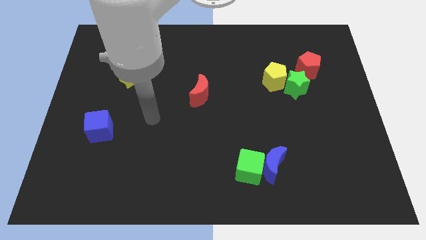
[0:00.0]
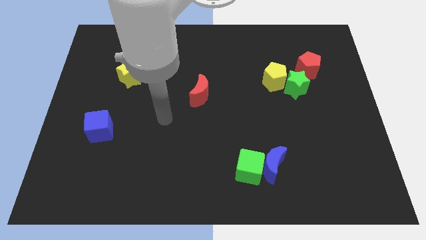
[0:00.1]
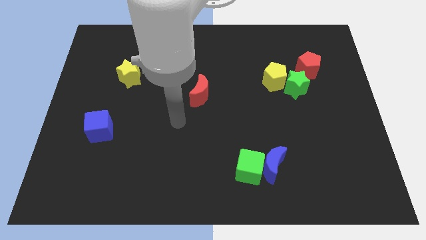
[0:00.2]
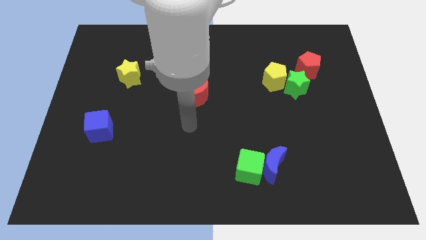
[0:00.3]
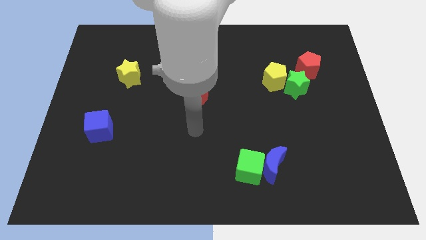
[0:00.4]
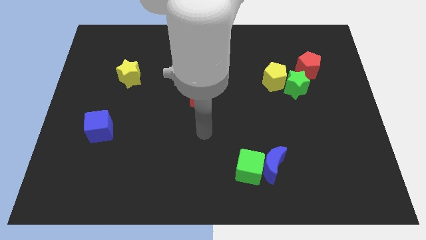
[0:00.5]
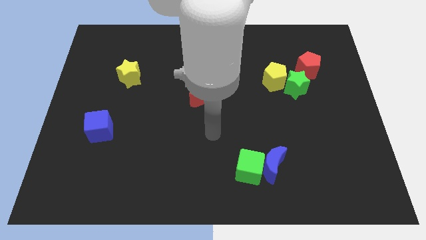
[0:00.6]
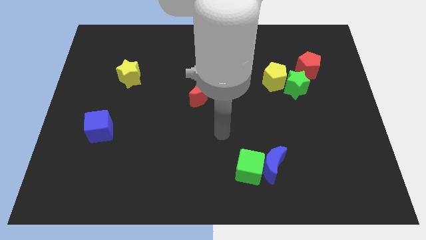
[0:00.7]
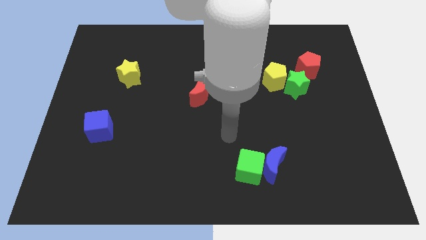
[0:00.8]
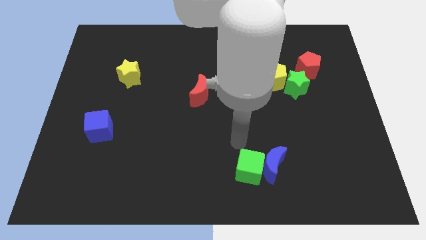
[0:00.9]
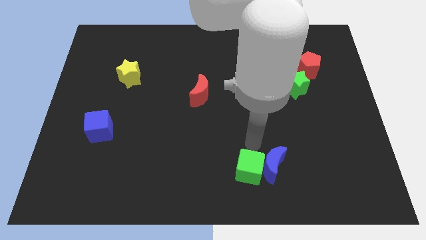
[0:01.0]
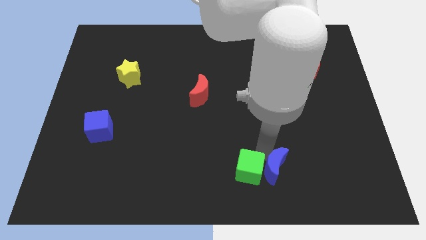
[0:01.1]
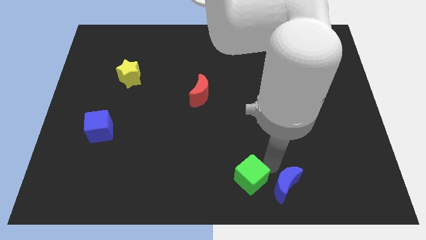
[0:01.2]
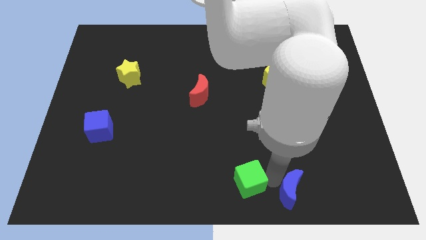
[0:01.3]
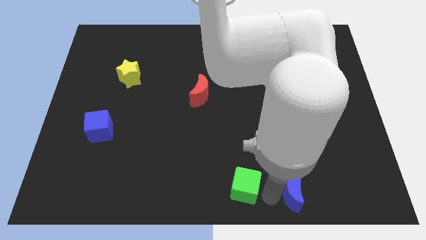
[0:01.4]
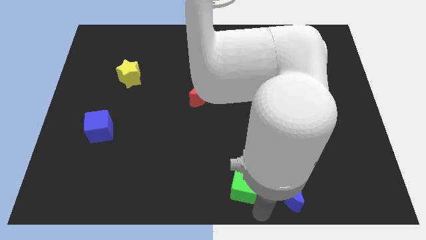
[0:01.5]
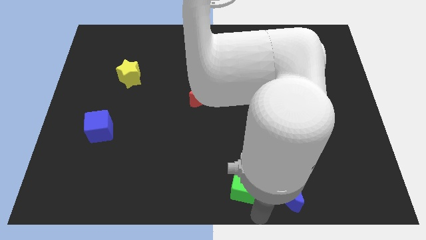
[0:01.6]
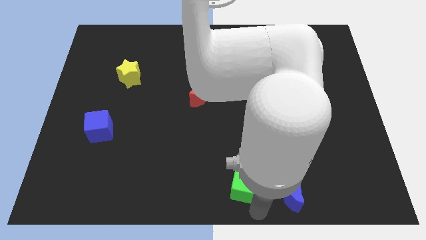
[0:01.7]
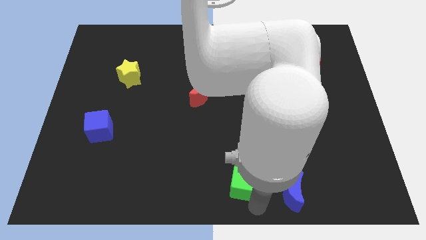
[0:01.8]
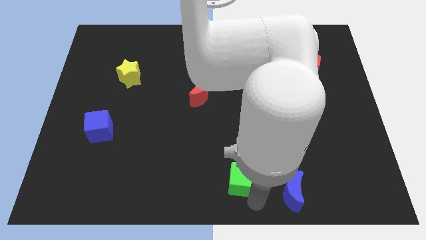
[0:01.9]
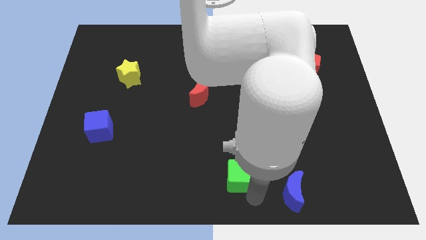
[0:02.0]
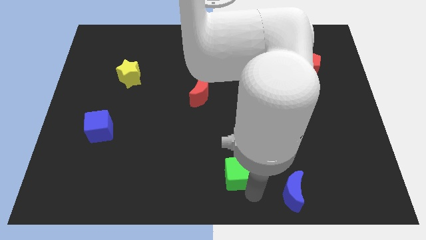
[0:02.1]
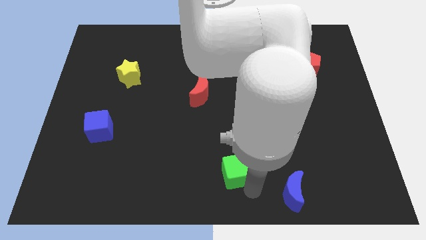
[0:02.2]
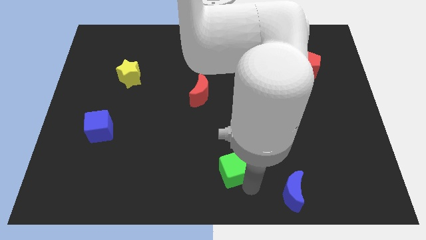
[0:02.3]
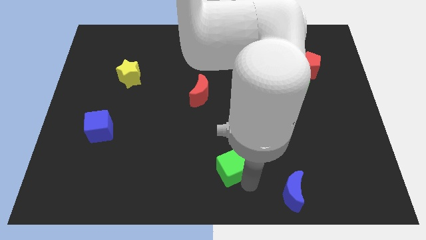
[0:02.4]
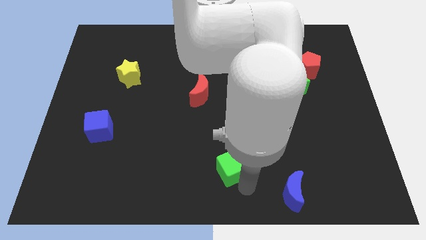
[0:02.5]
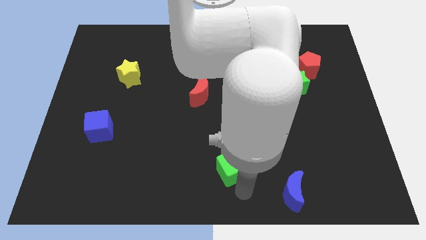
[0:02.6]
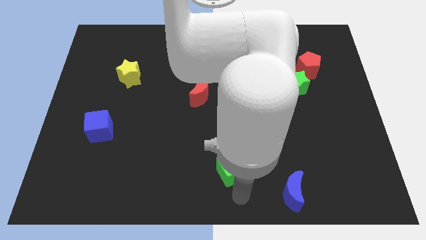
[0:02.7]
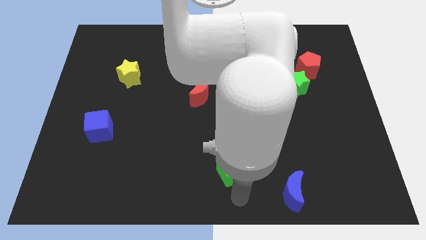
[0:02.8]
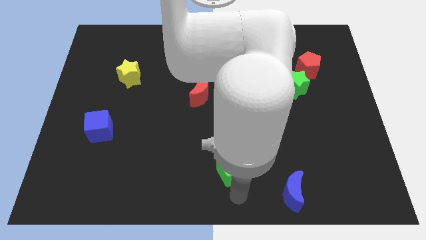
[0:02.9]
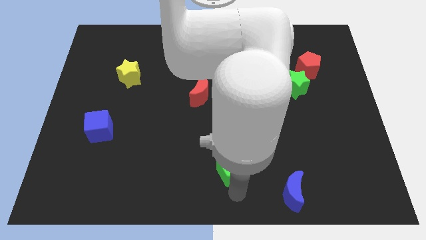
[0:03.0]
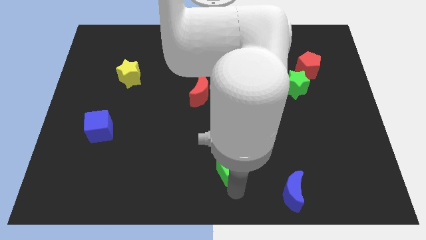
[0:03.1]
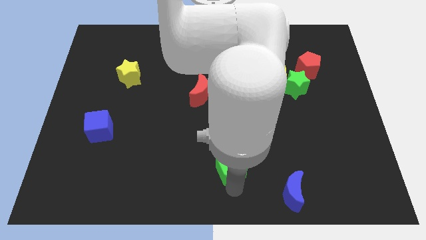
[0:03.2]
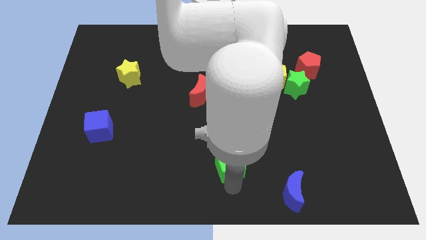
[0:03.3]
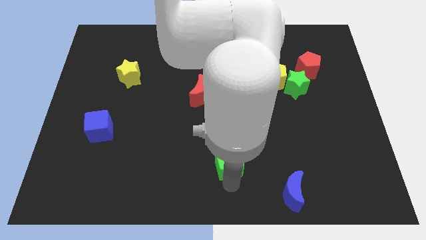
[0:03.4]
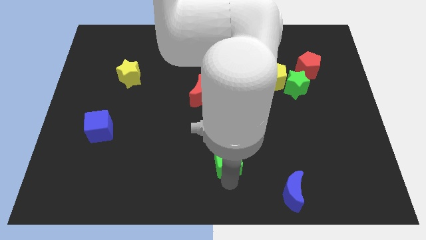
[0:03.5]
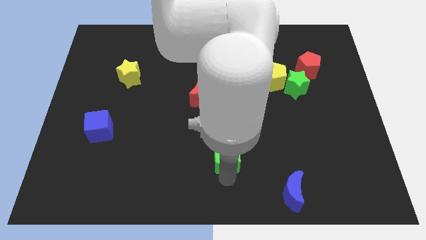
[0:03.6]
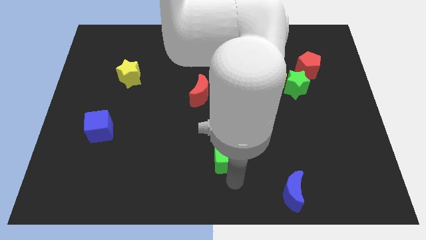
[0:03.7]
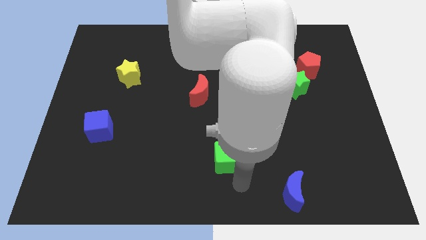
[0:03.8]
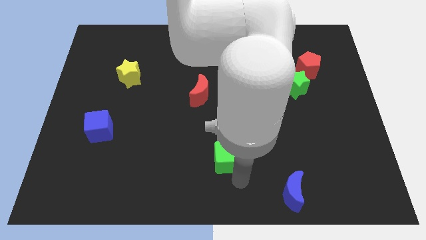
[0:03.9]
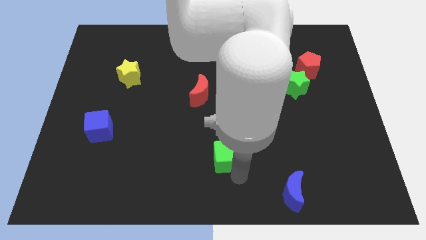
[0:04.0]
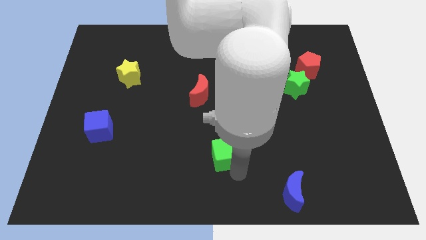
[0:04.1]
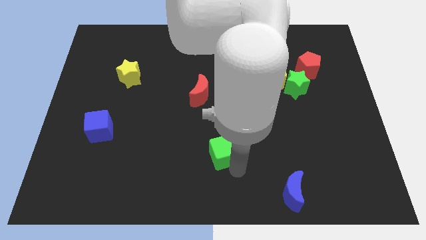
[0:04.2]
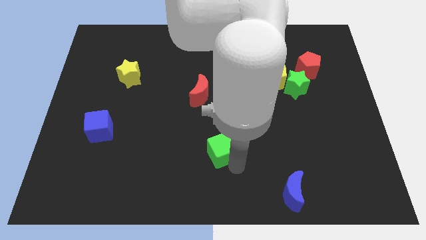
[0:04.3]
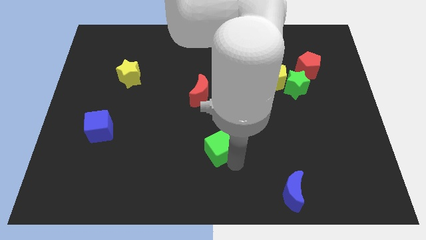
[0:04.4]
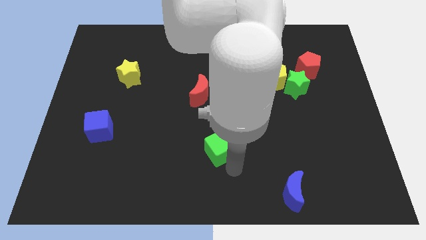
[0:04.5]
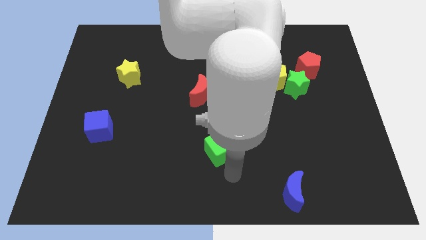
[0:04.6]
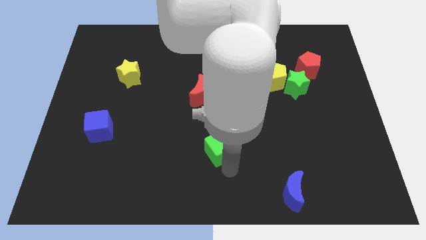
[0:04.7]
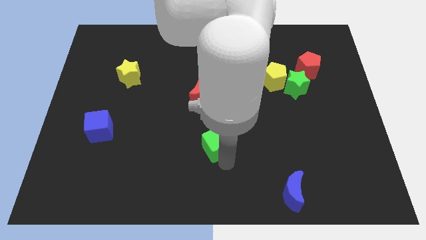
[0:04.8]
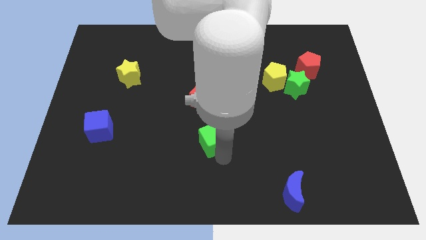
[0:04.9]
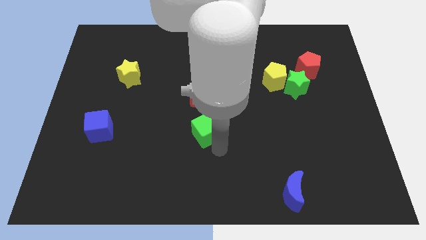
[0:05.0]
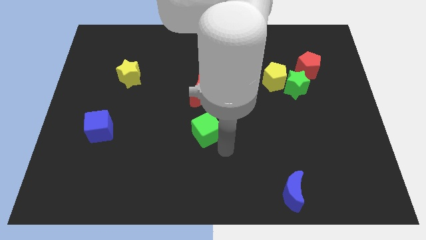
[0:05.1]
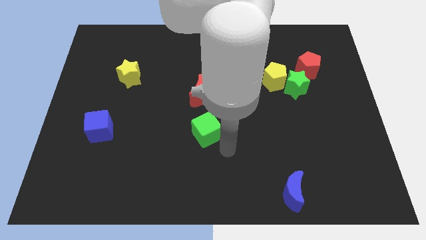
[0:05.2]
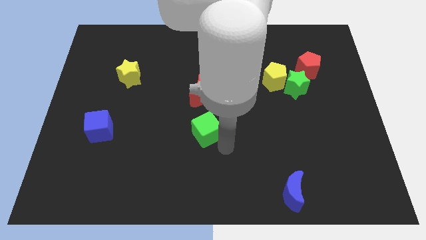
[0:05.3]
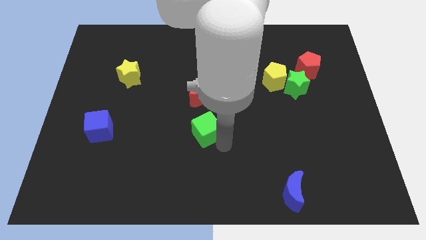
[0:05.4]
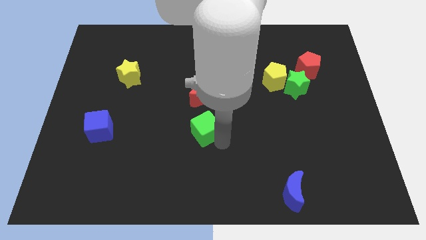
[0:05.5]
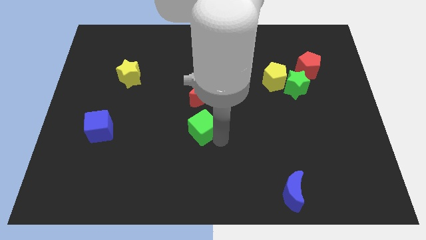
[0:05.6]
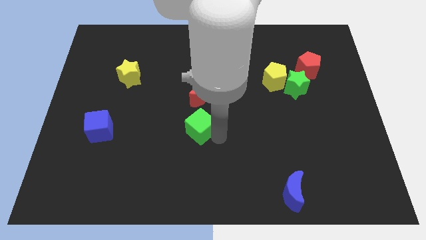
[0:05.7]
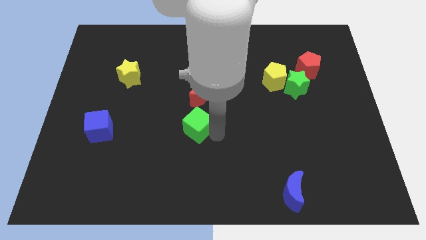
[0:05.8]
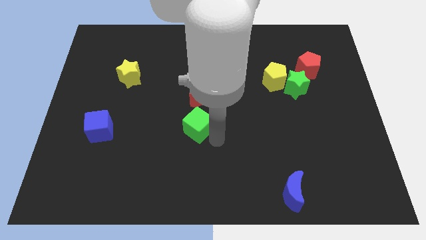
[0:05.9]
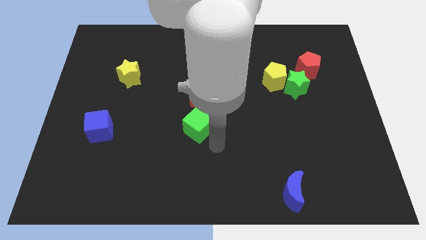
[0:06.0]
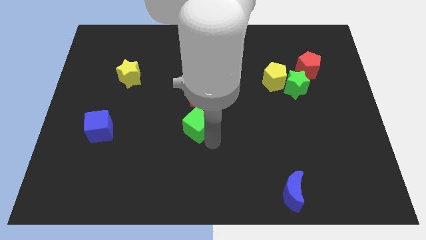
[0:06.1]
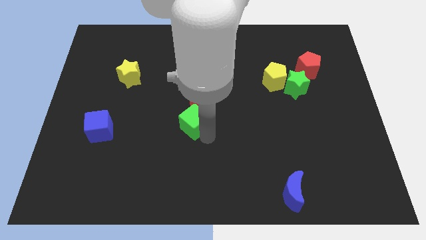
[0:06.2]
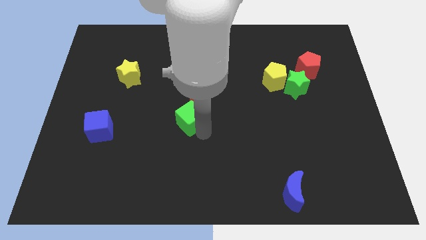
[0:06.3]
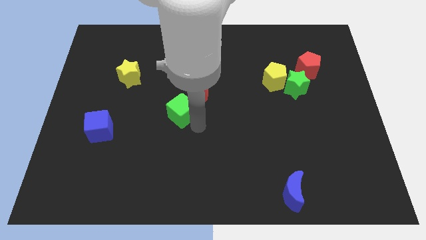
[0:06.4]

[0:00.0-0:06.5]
push the green cube up and to the left diagonally

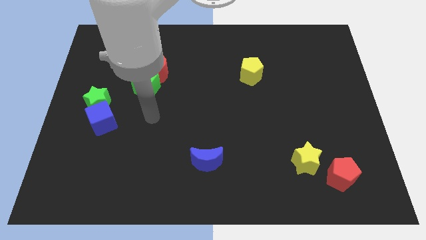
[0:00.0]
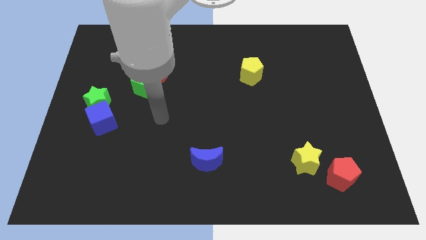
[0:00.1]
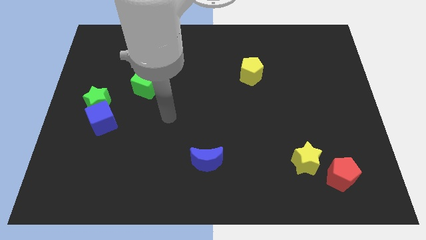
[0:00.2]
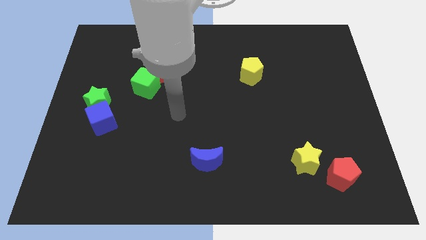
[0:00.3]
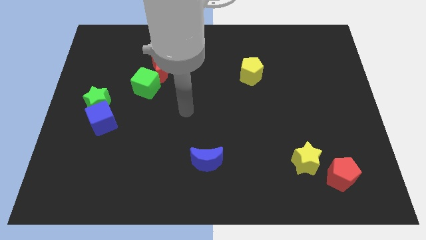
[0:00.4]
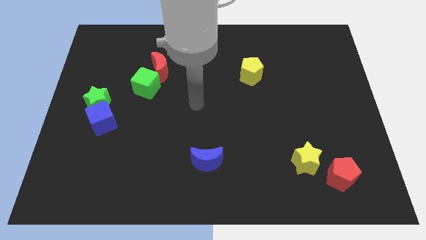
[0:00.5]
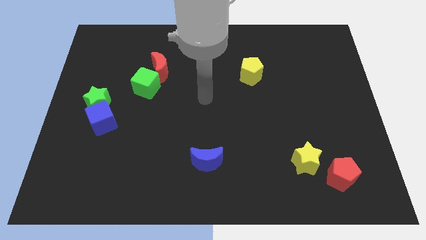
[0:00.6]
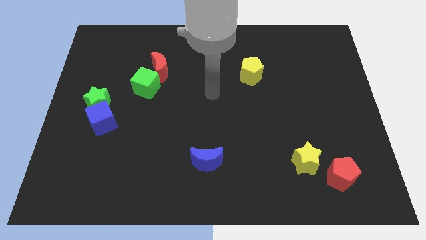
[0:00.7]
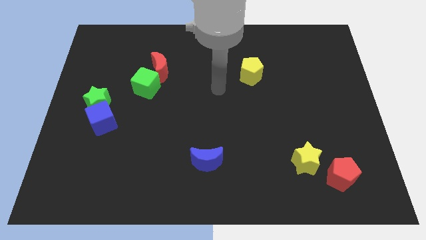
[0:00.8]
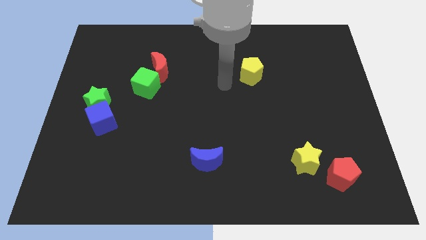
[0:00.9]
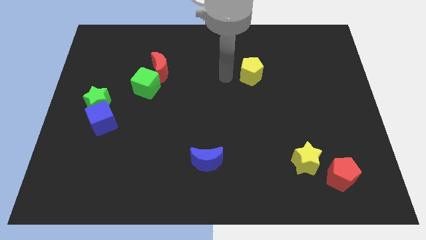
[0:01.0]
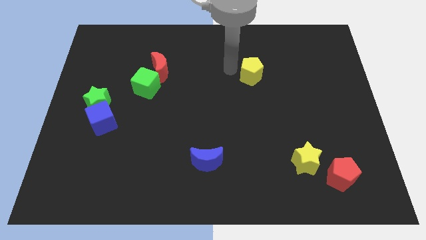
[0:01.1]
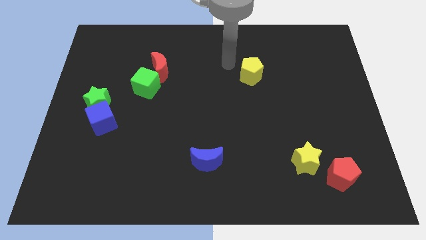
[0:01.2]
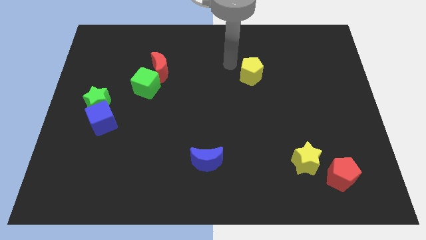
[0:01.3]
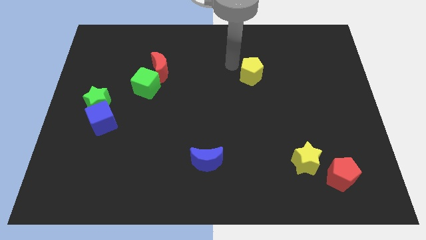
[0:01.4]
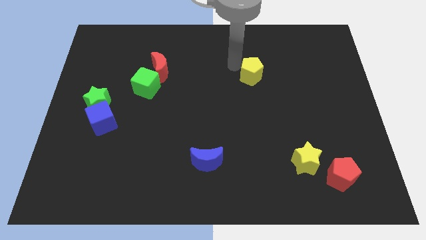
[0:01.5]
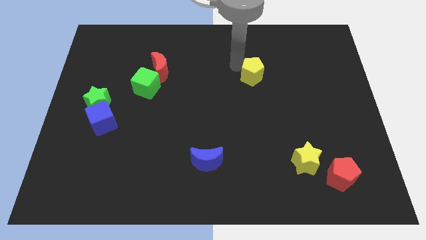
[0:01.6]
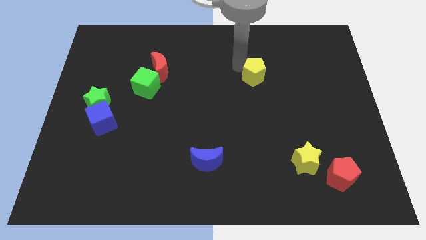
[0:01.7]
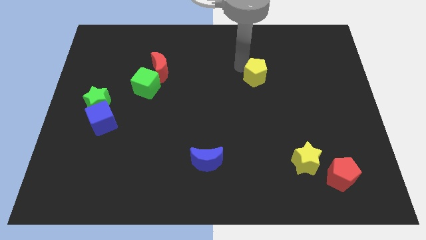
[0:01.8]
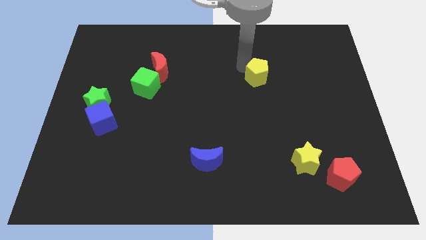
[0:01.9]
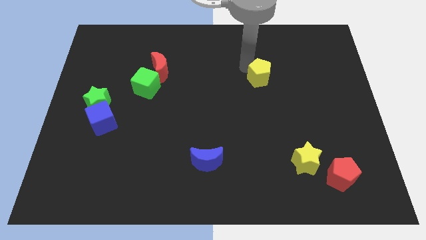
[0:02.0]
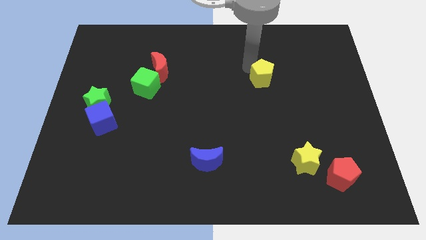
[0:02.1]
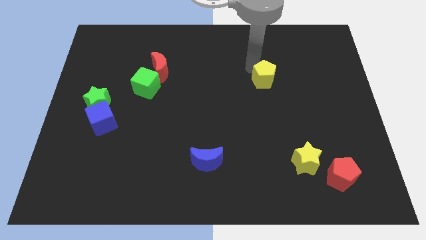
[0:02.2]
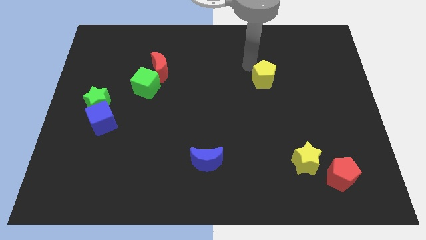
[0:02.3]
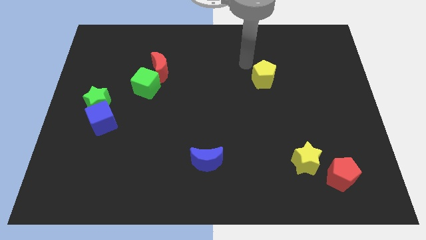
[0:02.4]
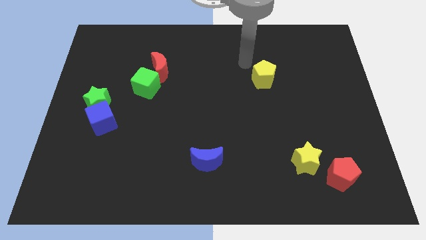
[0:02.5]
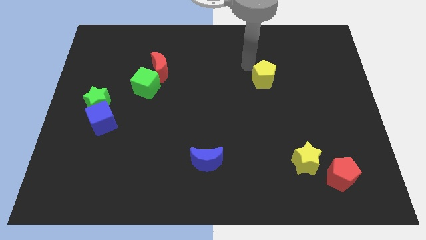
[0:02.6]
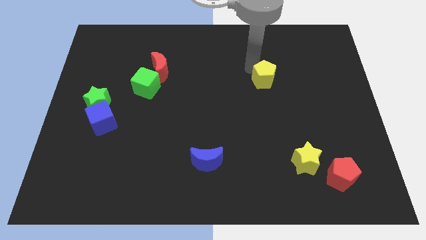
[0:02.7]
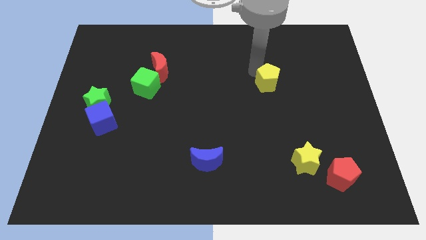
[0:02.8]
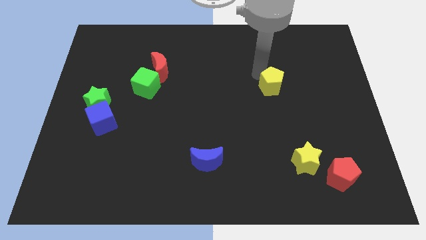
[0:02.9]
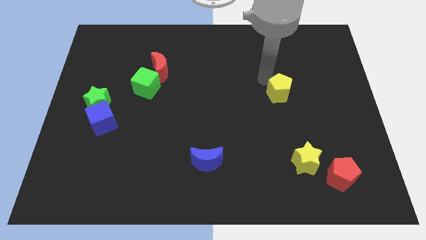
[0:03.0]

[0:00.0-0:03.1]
slightly move the yellow pentagon downwards and to the right
